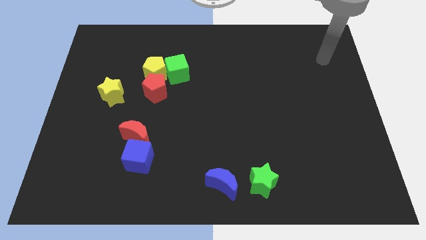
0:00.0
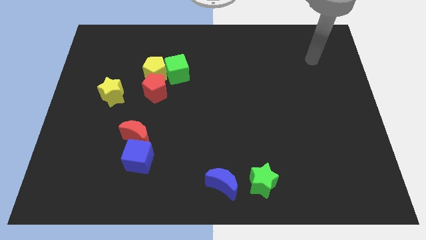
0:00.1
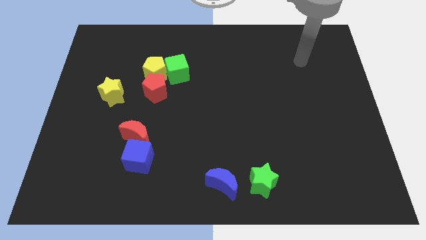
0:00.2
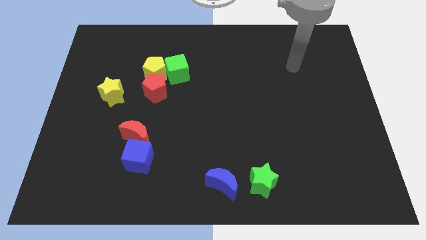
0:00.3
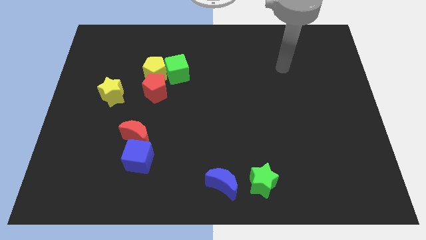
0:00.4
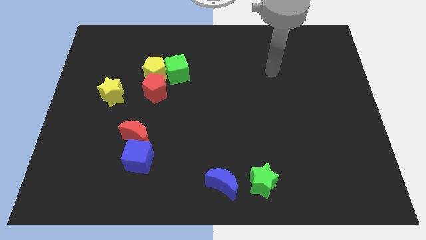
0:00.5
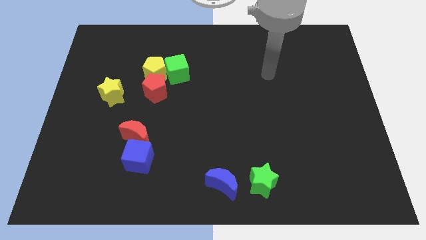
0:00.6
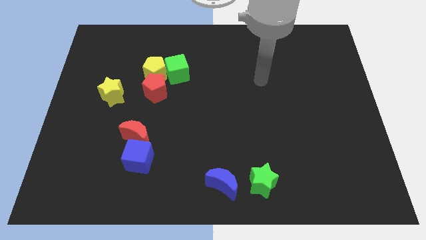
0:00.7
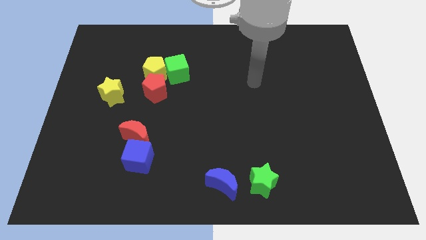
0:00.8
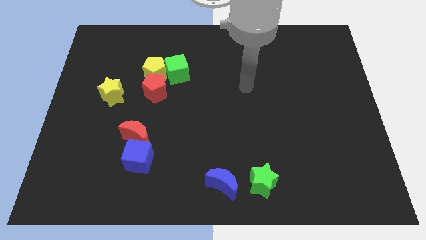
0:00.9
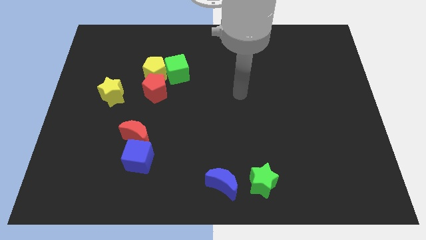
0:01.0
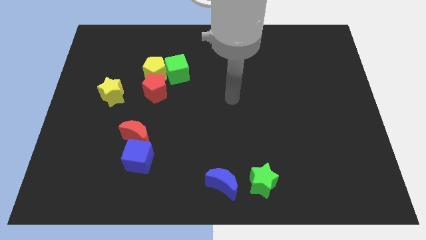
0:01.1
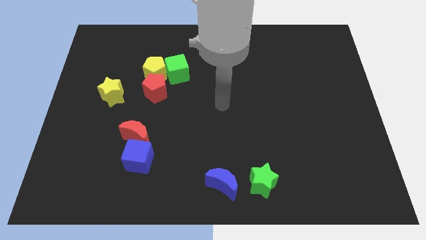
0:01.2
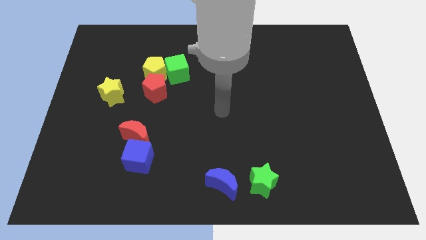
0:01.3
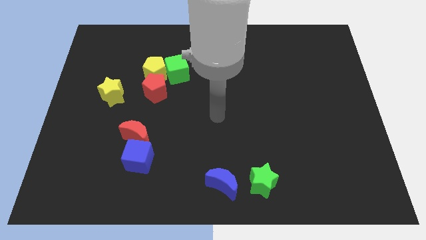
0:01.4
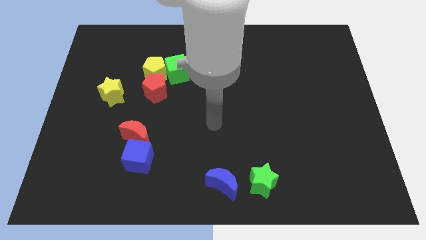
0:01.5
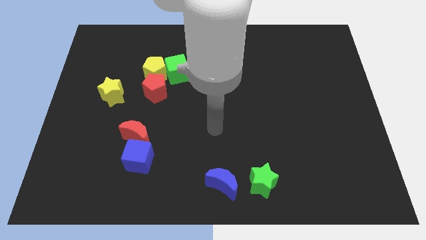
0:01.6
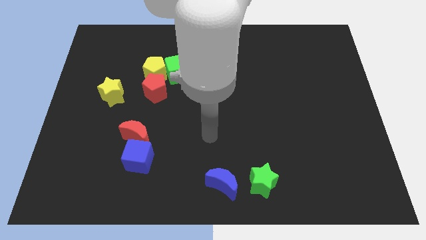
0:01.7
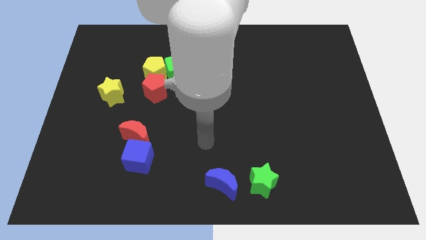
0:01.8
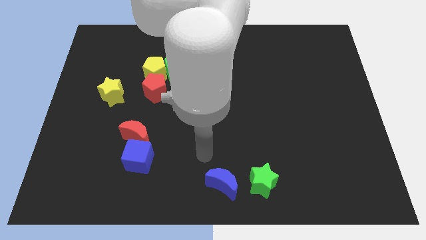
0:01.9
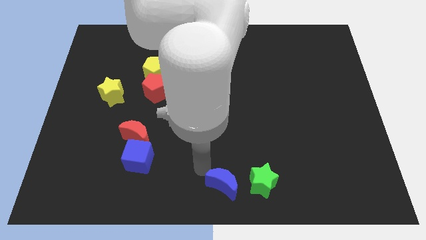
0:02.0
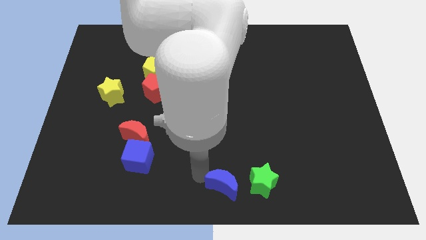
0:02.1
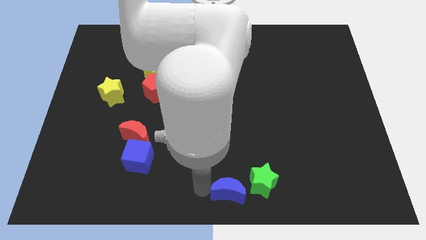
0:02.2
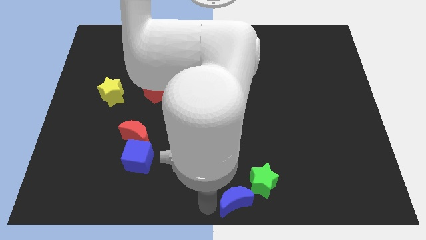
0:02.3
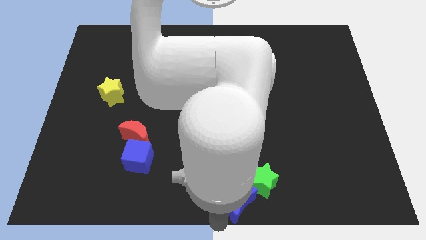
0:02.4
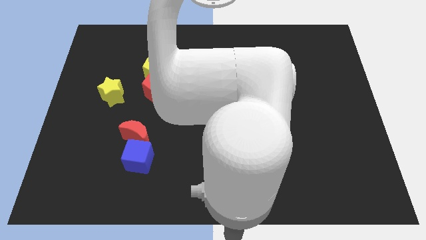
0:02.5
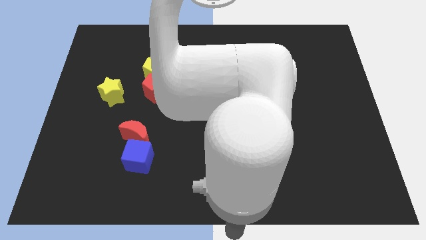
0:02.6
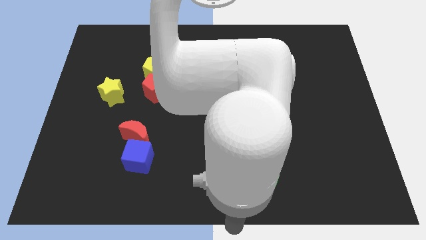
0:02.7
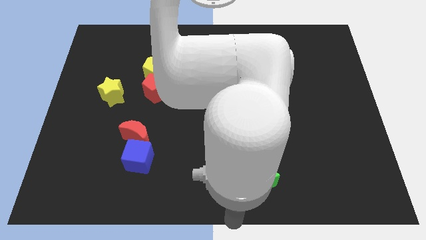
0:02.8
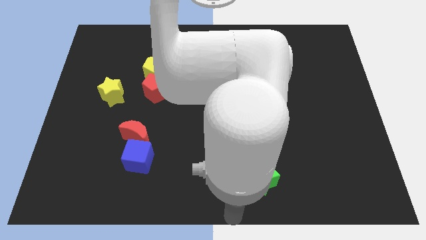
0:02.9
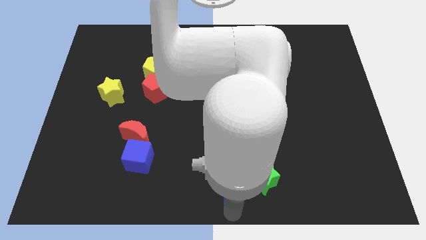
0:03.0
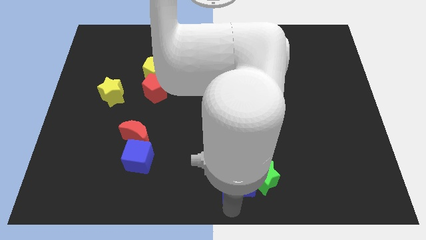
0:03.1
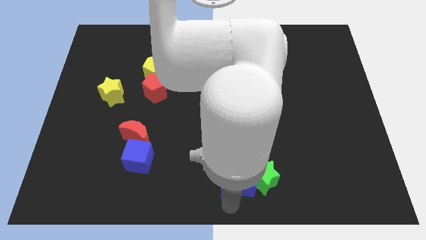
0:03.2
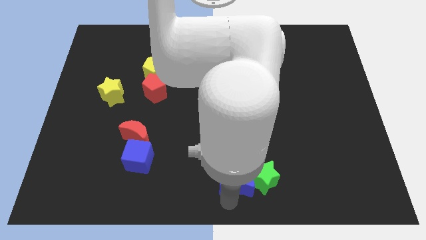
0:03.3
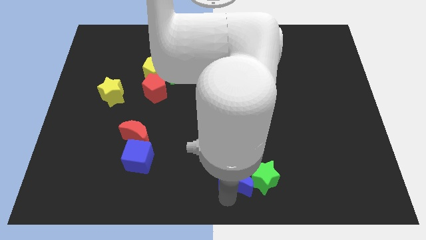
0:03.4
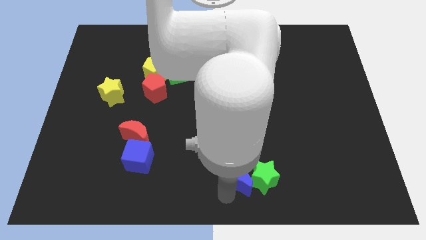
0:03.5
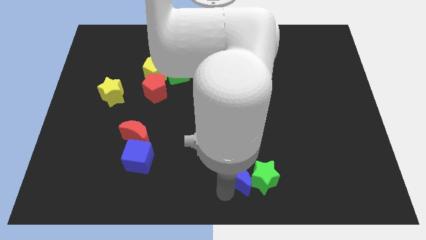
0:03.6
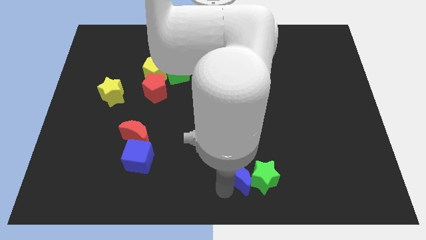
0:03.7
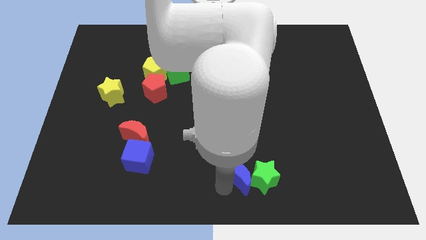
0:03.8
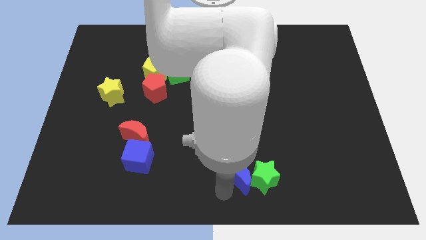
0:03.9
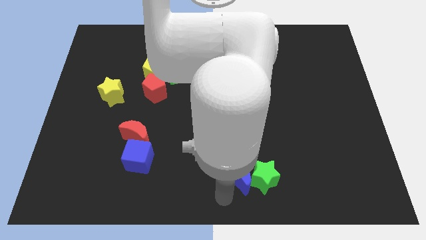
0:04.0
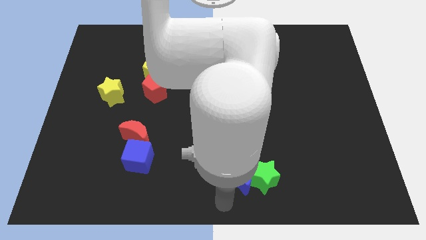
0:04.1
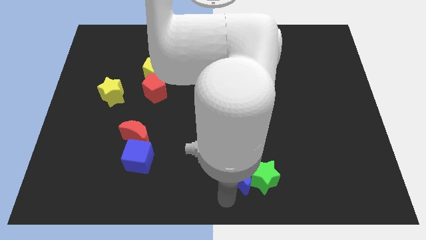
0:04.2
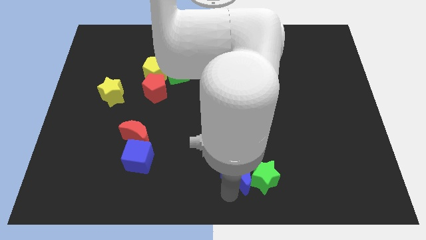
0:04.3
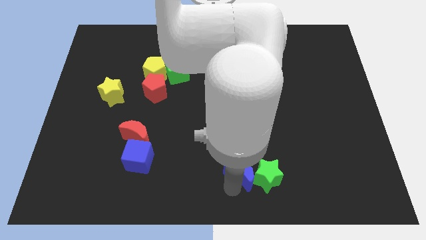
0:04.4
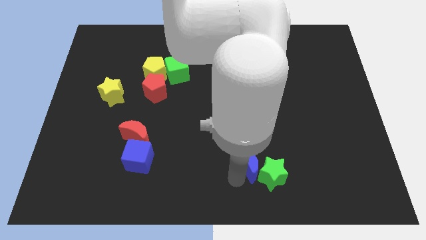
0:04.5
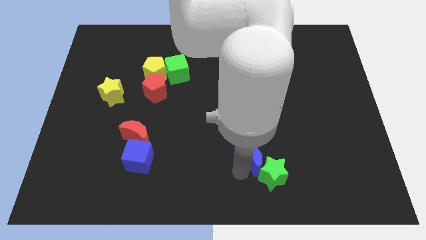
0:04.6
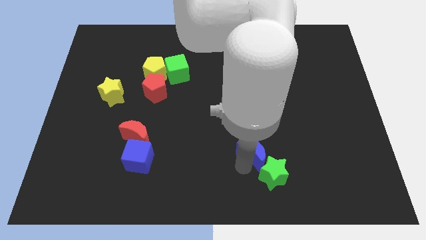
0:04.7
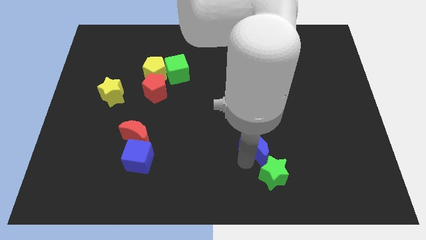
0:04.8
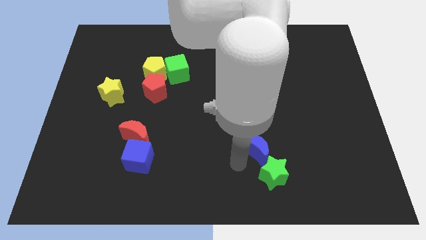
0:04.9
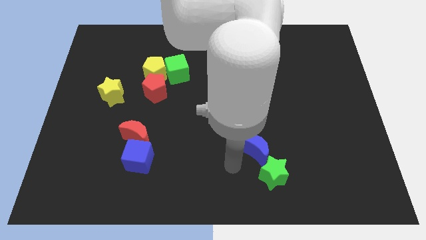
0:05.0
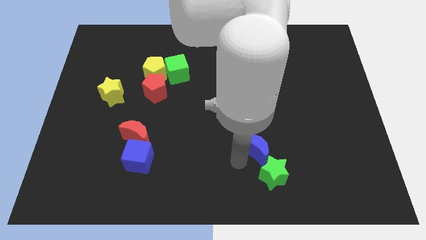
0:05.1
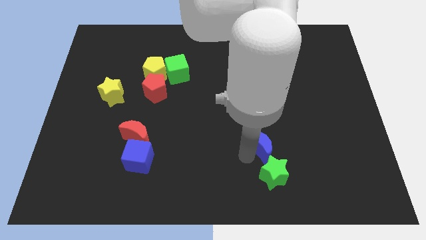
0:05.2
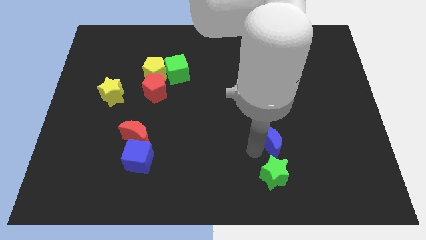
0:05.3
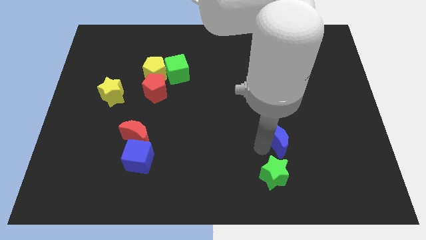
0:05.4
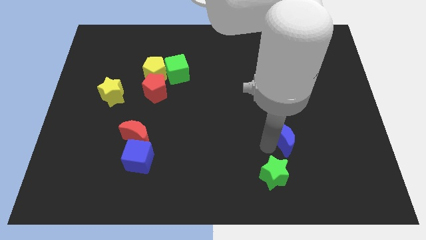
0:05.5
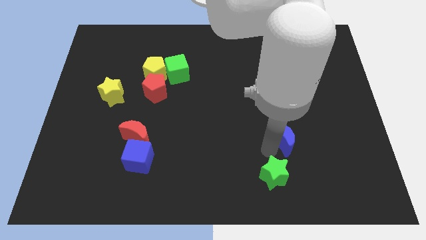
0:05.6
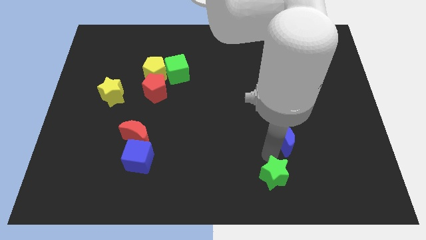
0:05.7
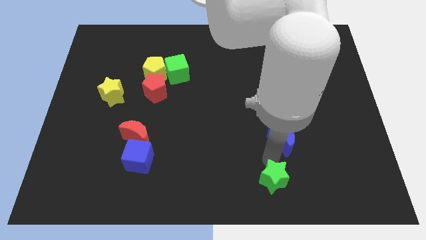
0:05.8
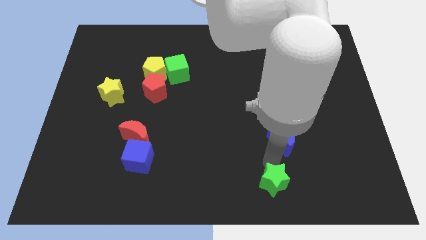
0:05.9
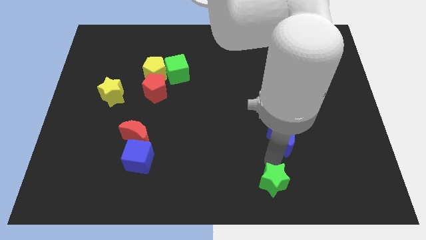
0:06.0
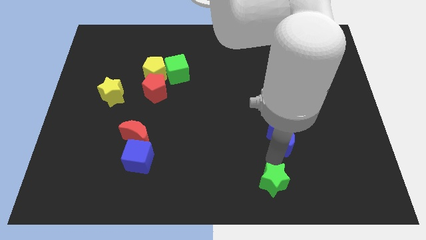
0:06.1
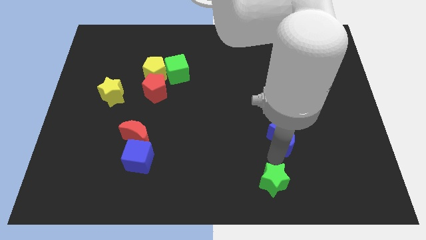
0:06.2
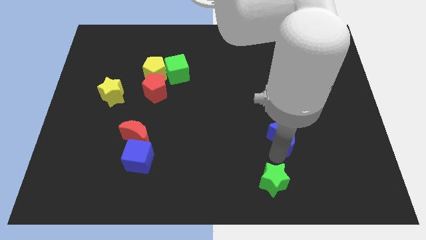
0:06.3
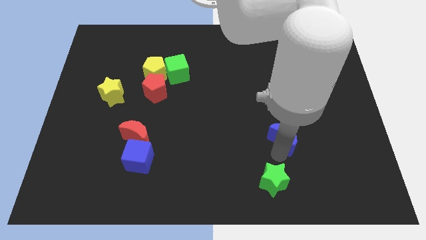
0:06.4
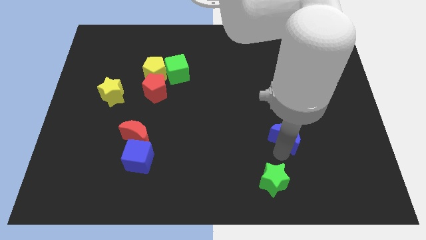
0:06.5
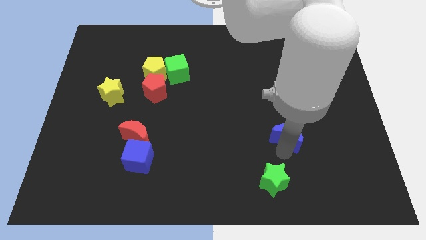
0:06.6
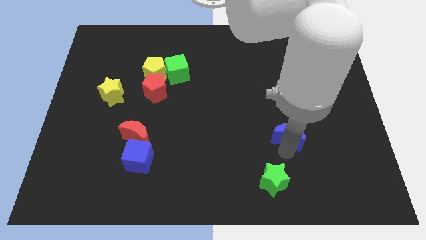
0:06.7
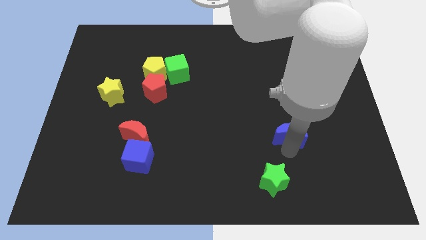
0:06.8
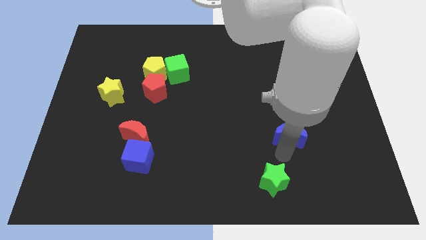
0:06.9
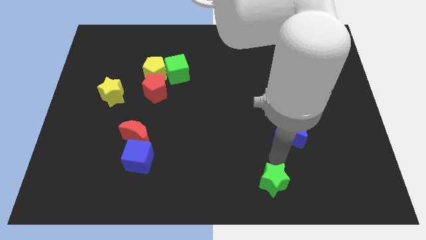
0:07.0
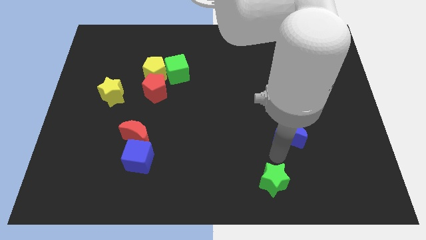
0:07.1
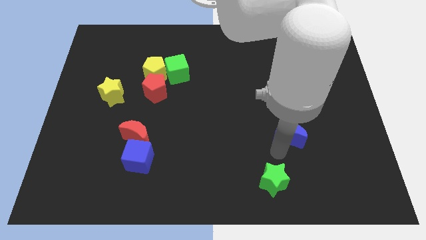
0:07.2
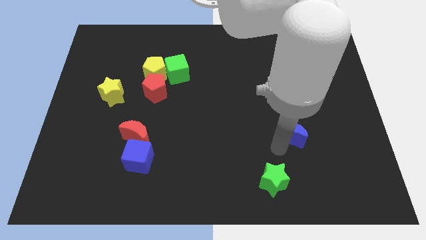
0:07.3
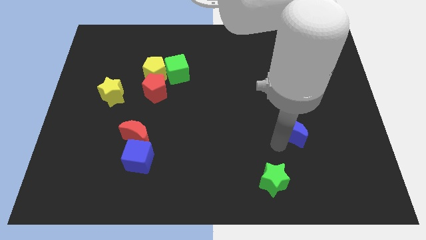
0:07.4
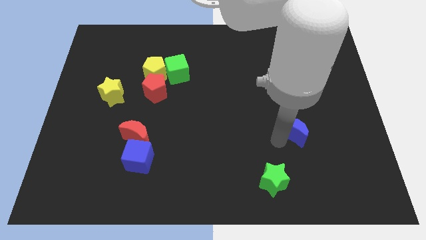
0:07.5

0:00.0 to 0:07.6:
move the blue moon diagonally up and to the right

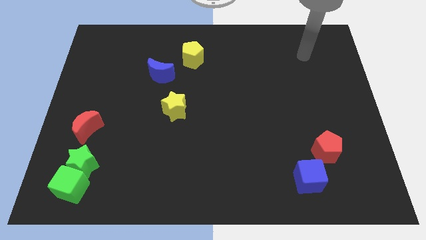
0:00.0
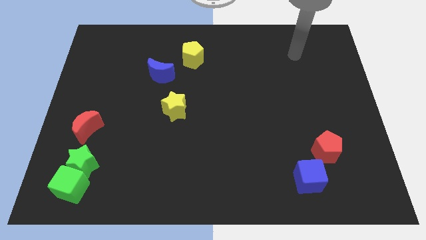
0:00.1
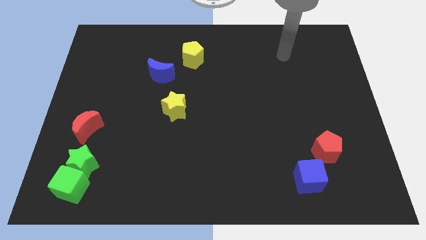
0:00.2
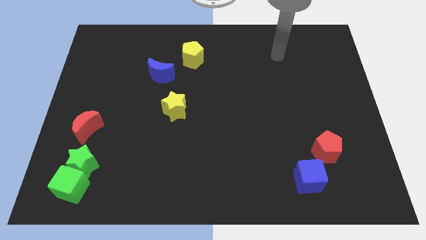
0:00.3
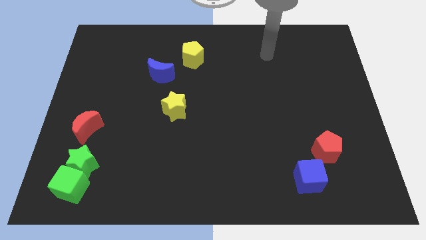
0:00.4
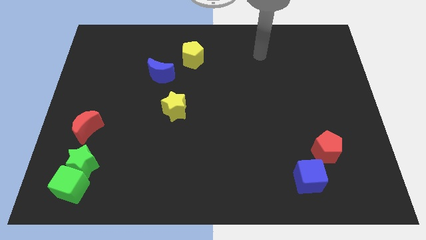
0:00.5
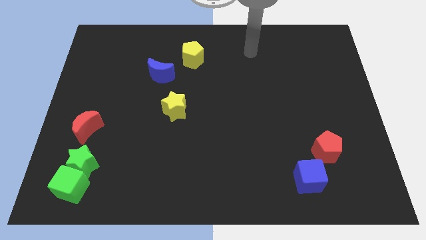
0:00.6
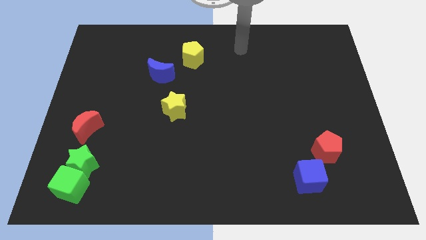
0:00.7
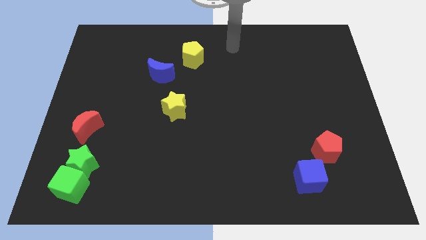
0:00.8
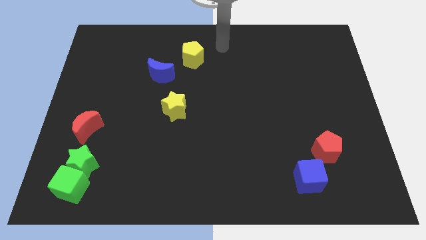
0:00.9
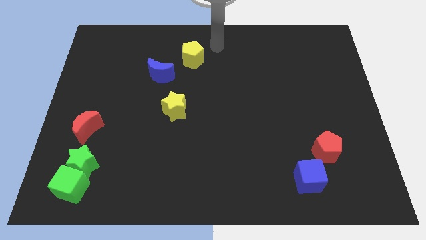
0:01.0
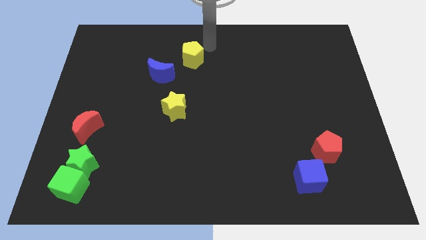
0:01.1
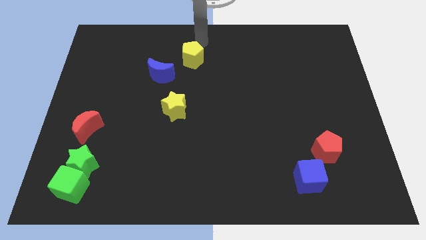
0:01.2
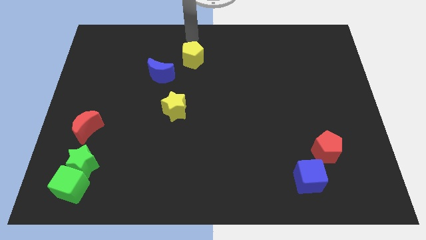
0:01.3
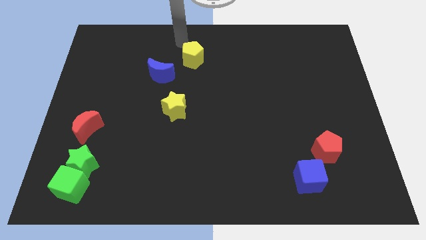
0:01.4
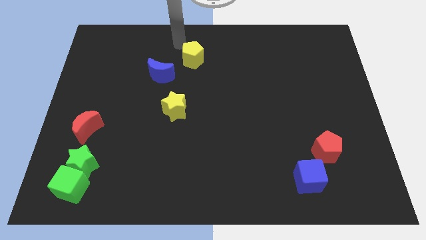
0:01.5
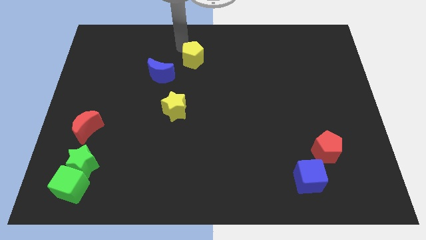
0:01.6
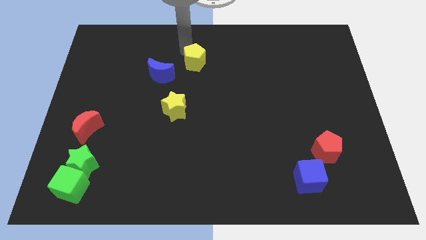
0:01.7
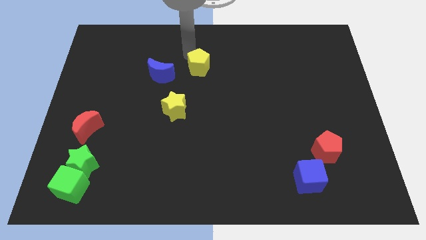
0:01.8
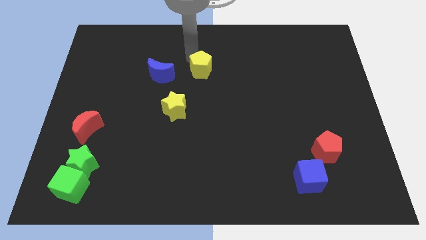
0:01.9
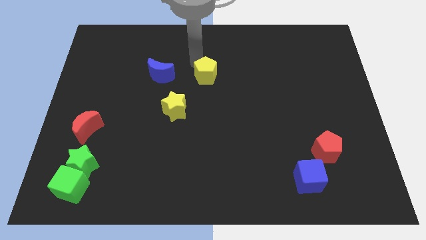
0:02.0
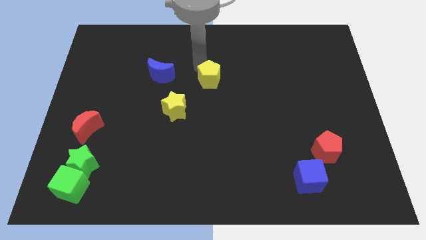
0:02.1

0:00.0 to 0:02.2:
slightly slide the yellow pentagon down and then to the right
